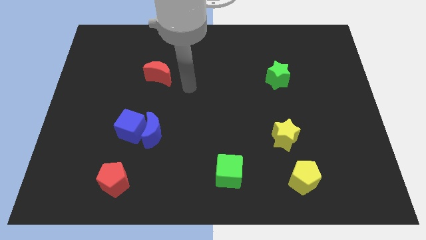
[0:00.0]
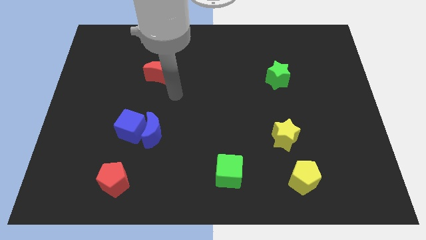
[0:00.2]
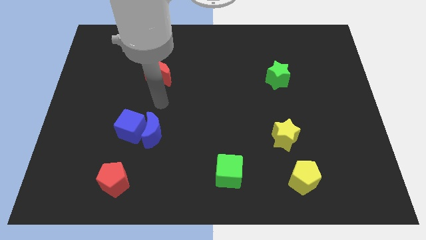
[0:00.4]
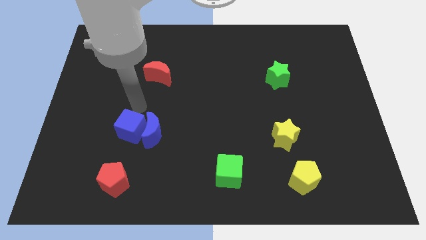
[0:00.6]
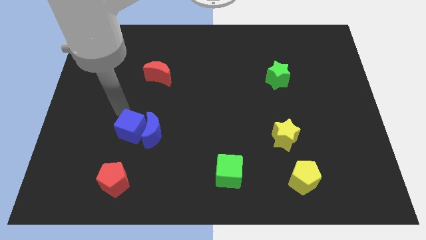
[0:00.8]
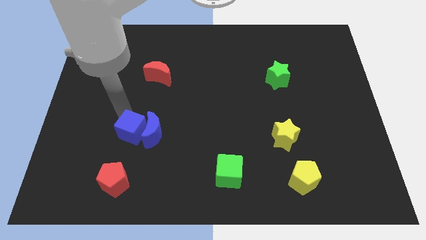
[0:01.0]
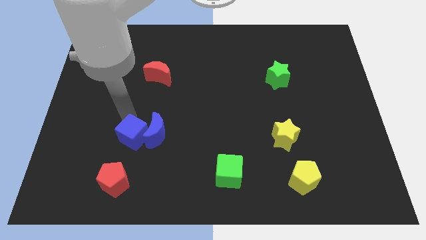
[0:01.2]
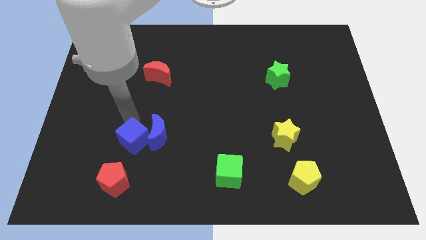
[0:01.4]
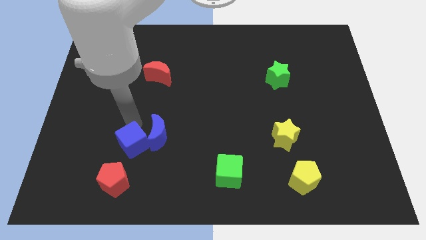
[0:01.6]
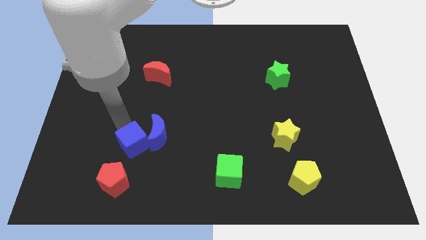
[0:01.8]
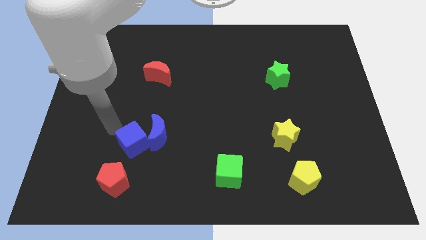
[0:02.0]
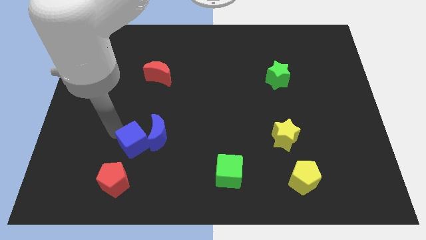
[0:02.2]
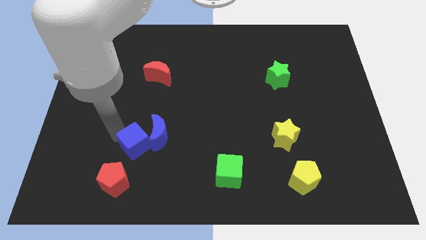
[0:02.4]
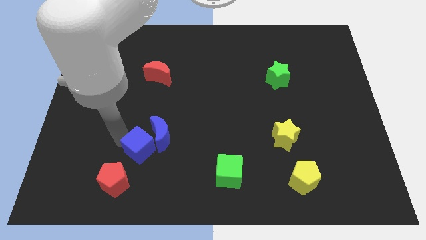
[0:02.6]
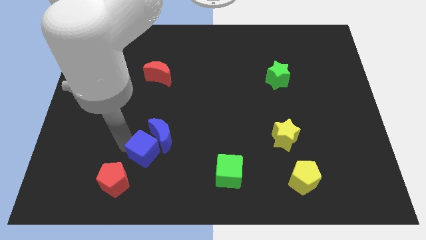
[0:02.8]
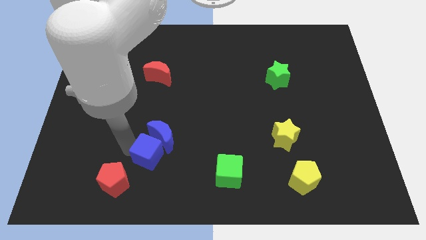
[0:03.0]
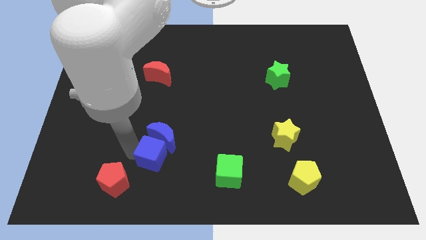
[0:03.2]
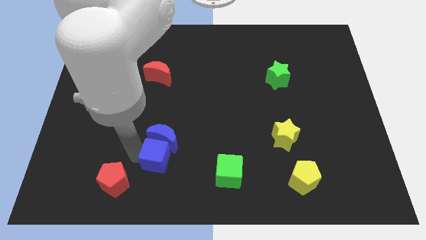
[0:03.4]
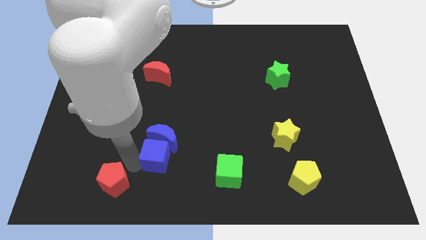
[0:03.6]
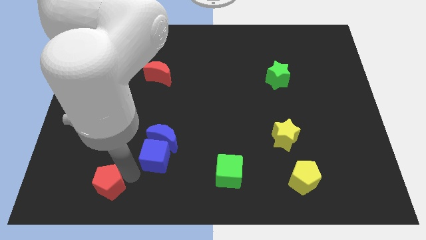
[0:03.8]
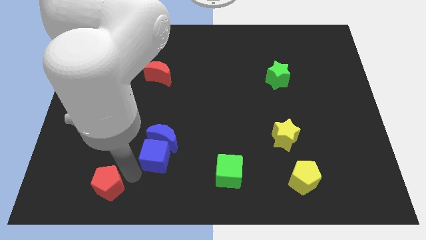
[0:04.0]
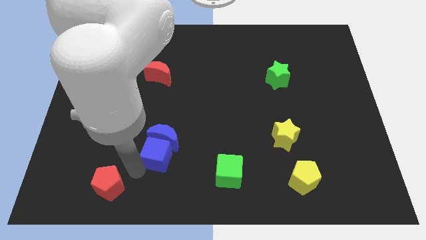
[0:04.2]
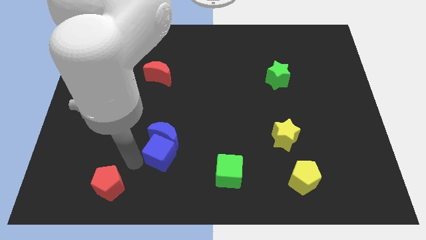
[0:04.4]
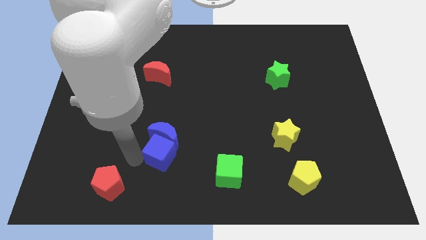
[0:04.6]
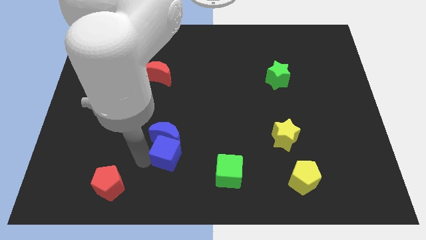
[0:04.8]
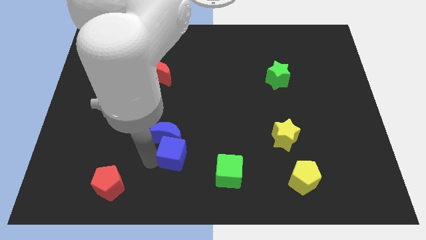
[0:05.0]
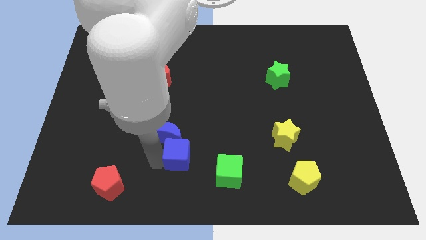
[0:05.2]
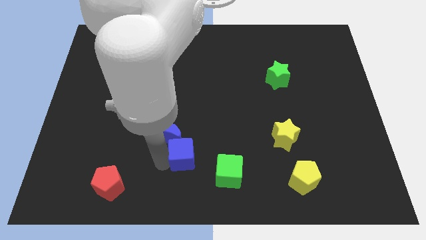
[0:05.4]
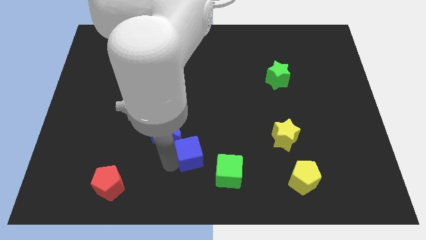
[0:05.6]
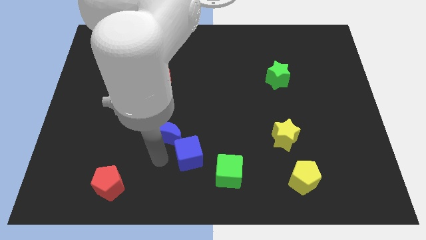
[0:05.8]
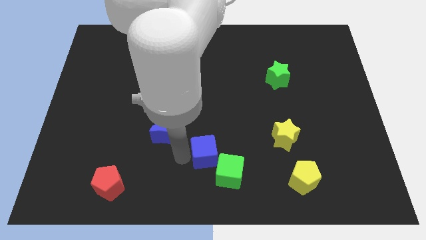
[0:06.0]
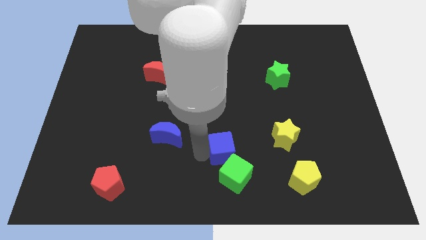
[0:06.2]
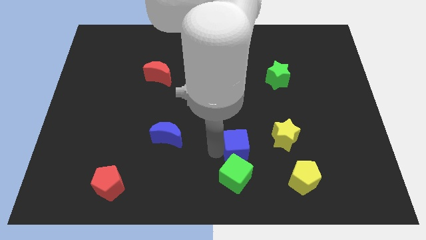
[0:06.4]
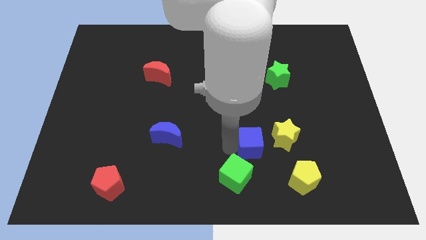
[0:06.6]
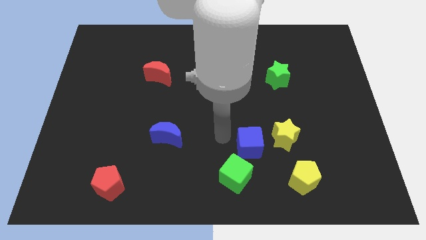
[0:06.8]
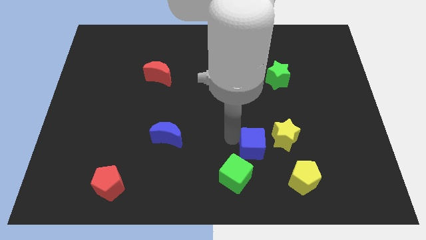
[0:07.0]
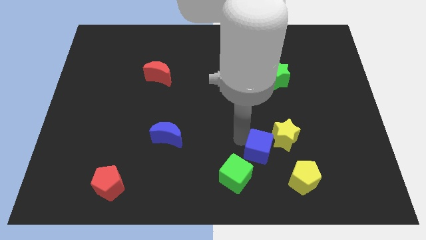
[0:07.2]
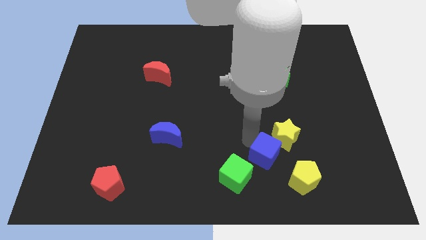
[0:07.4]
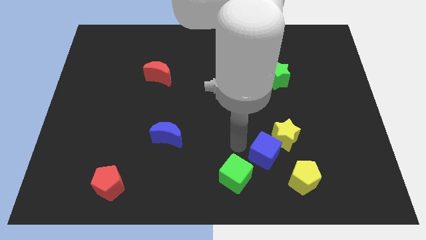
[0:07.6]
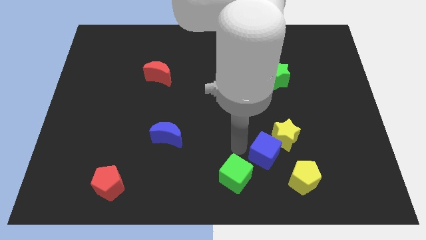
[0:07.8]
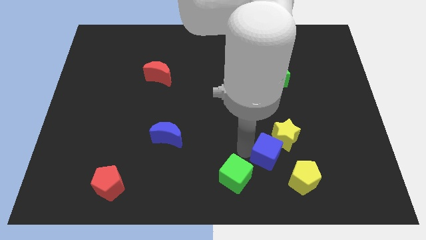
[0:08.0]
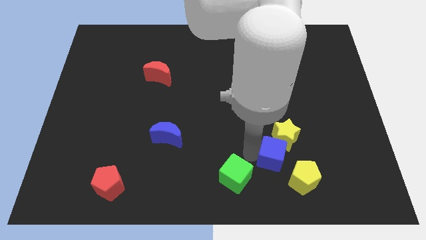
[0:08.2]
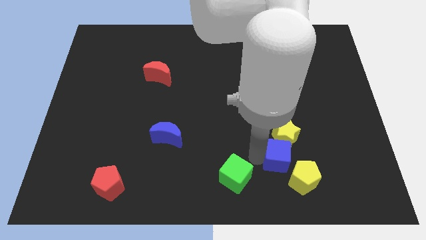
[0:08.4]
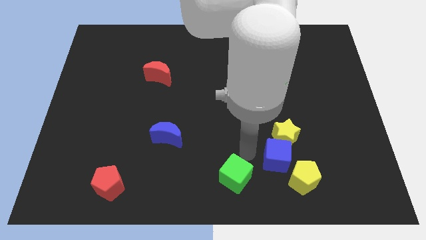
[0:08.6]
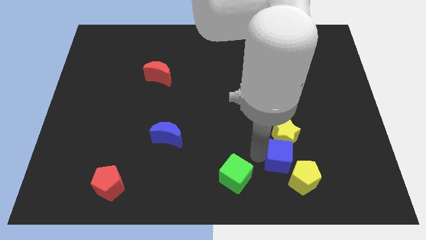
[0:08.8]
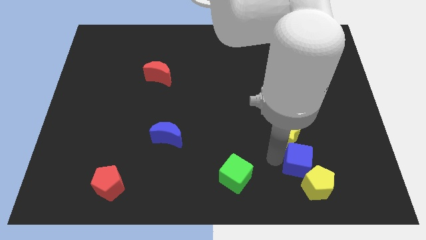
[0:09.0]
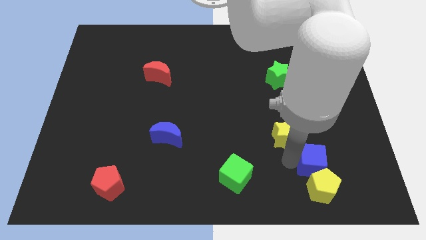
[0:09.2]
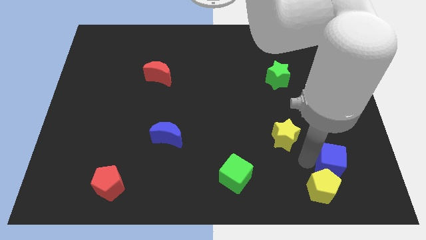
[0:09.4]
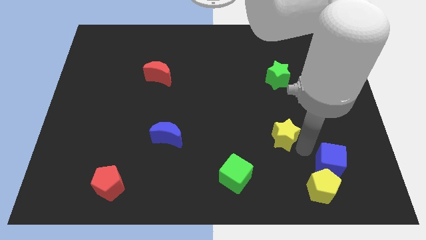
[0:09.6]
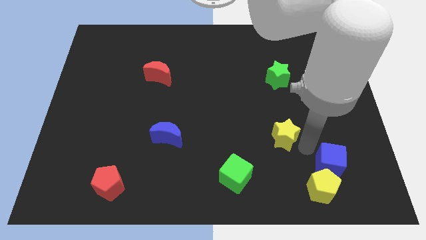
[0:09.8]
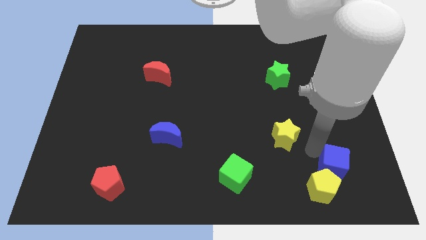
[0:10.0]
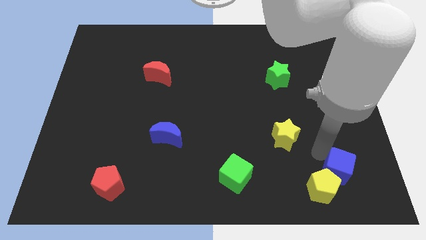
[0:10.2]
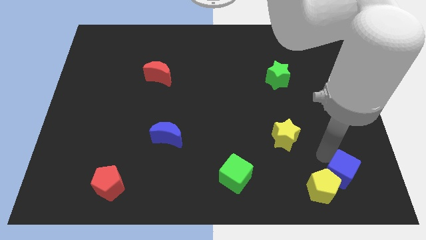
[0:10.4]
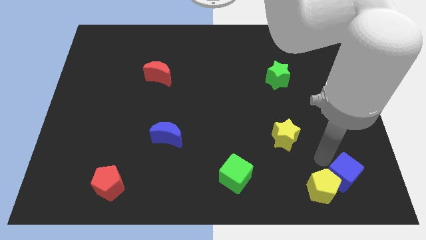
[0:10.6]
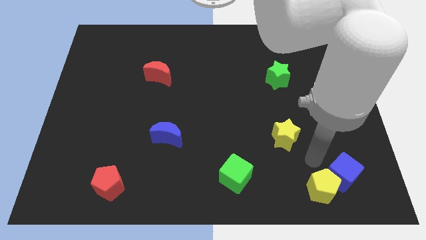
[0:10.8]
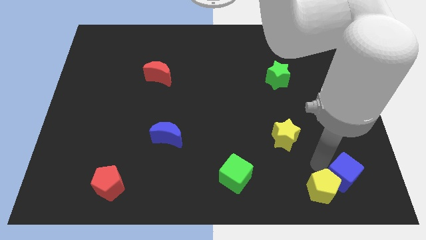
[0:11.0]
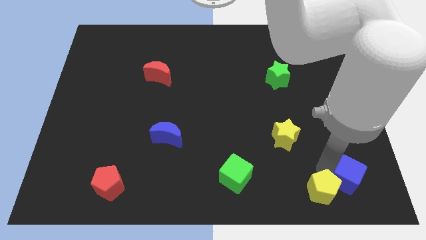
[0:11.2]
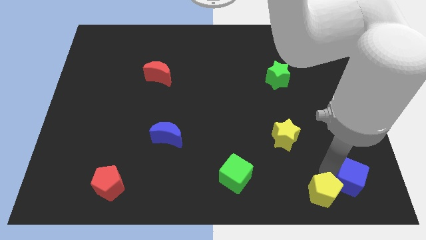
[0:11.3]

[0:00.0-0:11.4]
slide the blue cube to the bottom right
